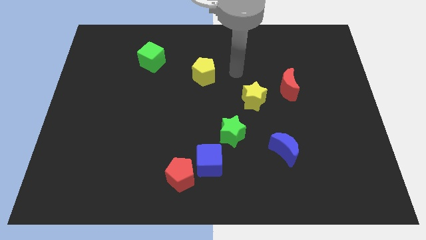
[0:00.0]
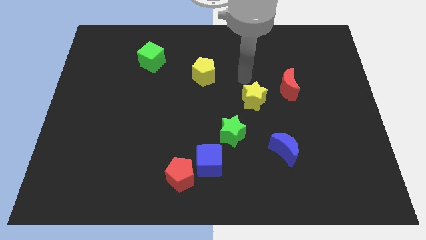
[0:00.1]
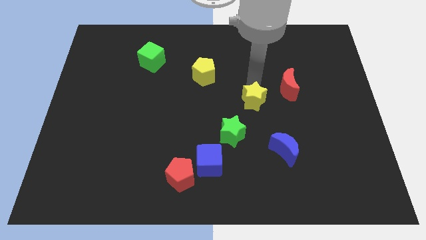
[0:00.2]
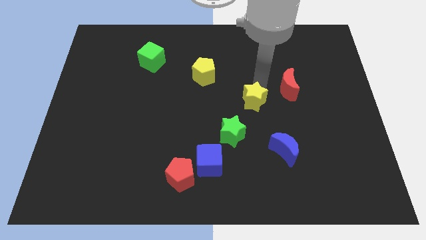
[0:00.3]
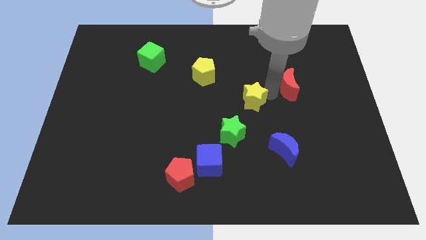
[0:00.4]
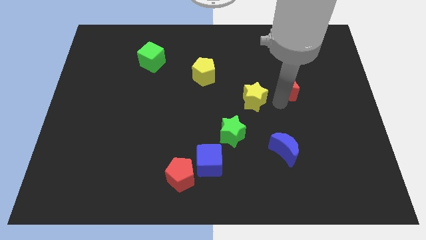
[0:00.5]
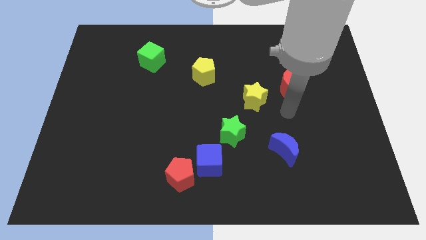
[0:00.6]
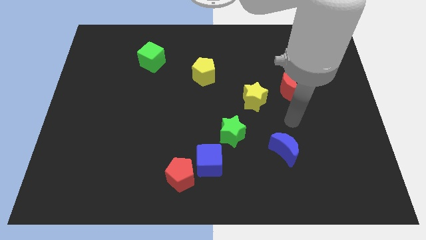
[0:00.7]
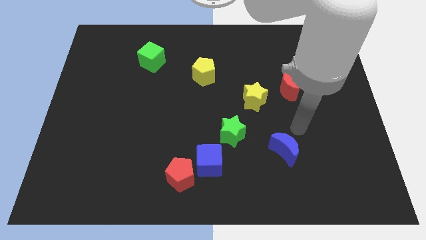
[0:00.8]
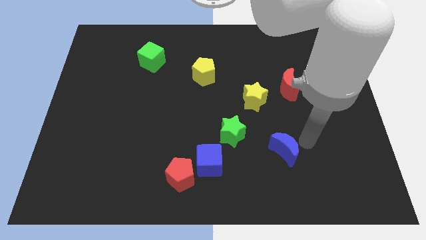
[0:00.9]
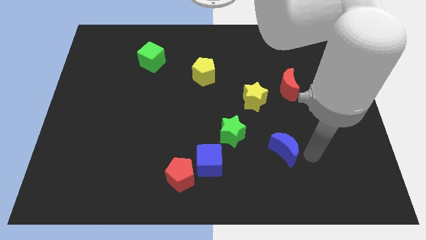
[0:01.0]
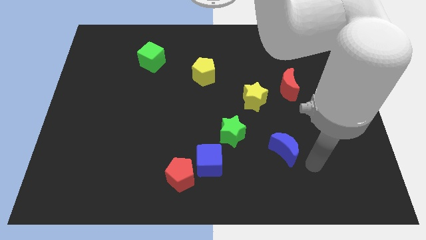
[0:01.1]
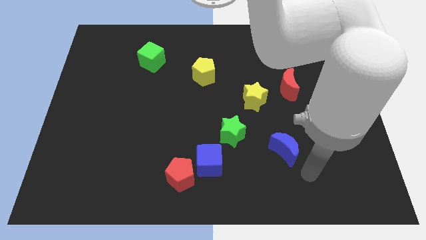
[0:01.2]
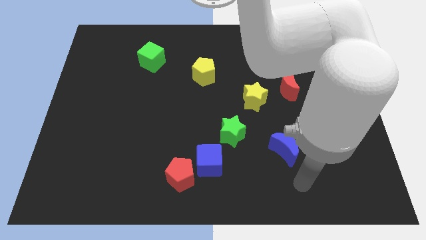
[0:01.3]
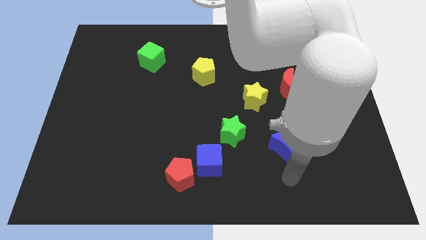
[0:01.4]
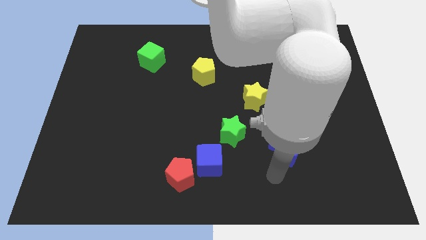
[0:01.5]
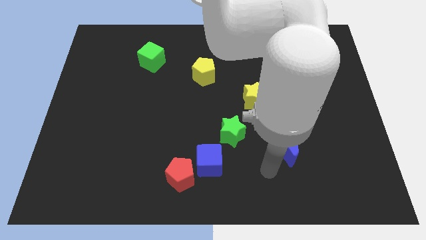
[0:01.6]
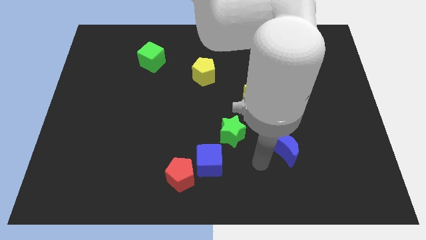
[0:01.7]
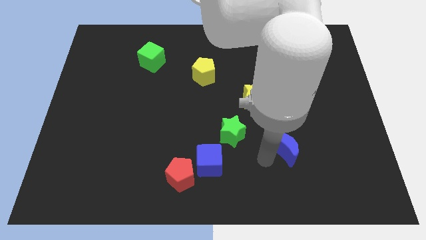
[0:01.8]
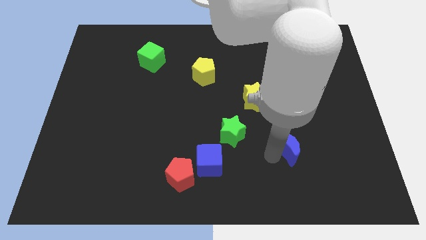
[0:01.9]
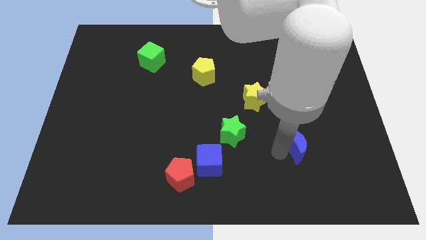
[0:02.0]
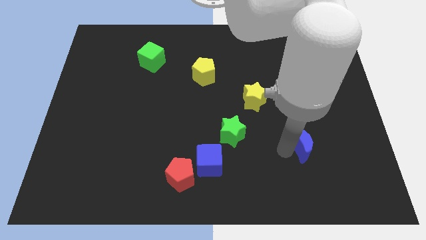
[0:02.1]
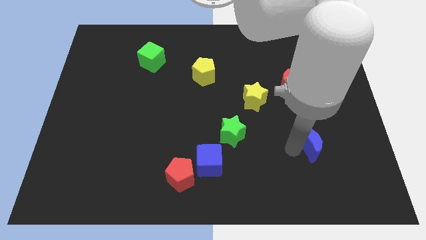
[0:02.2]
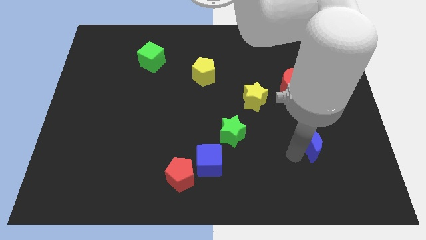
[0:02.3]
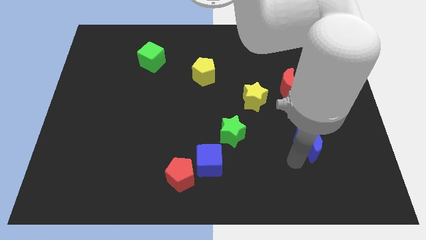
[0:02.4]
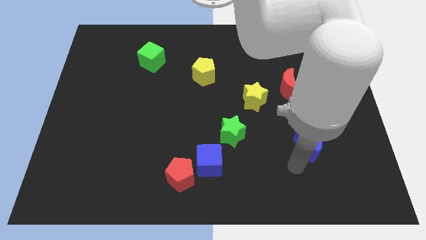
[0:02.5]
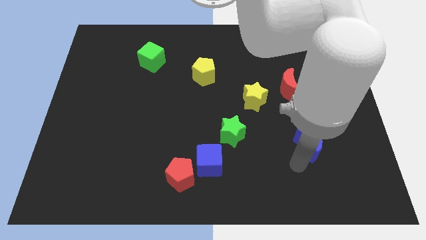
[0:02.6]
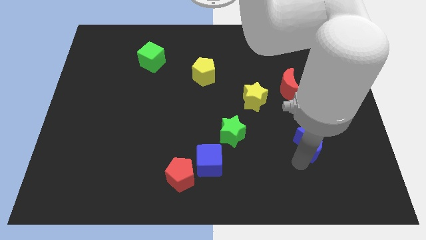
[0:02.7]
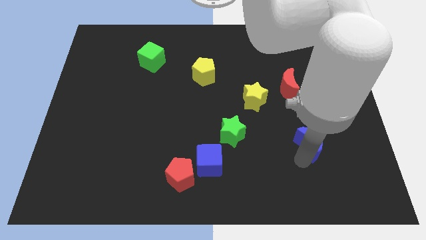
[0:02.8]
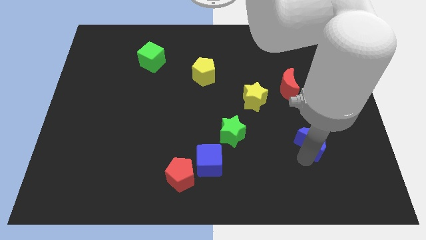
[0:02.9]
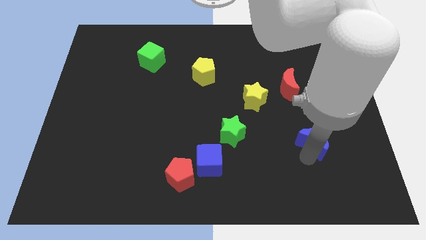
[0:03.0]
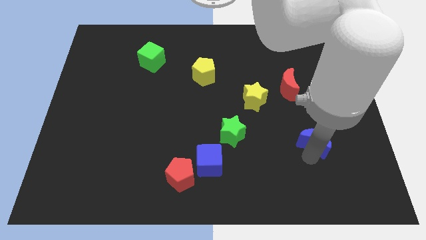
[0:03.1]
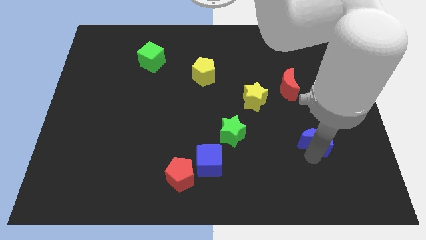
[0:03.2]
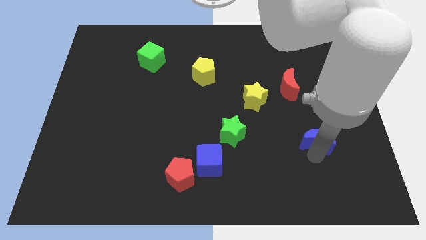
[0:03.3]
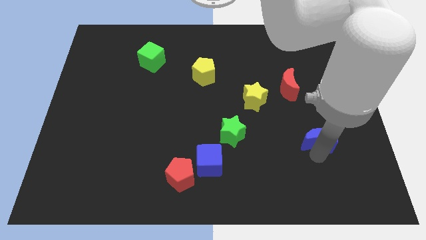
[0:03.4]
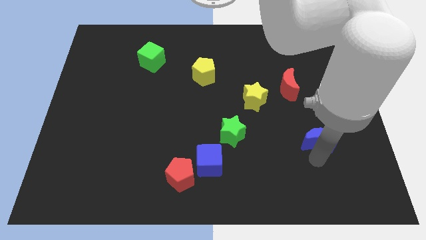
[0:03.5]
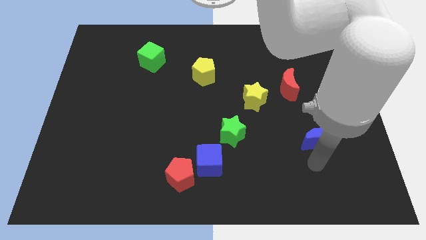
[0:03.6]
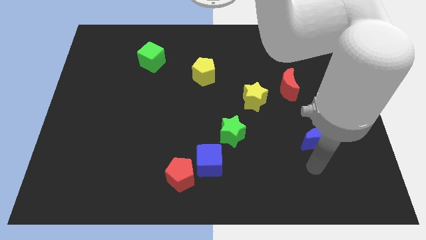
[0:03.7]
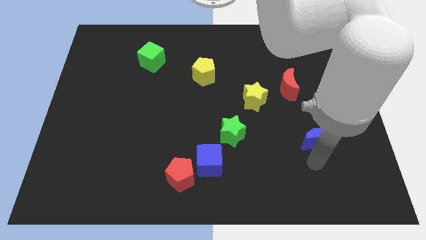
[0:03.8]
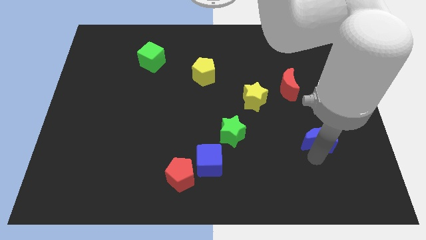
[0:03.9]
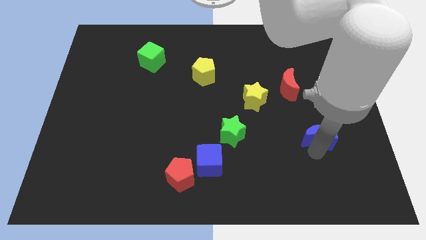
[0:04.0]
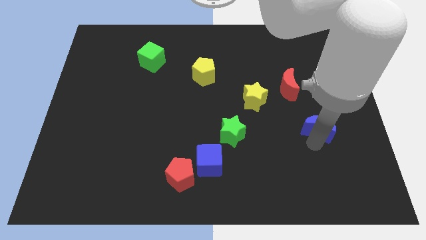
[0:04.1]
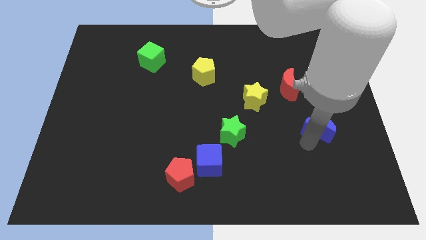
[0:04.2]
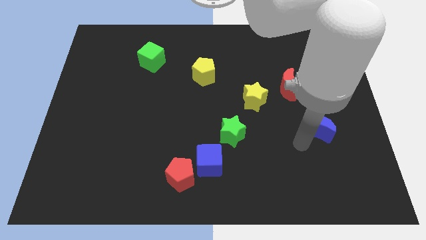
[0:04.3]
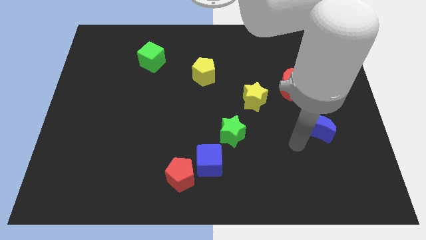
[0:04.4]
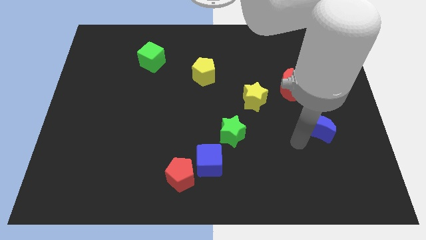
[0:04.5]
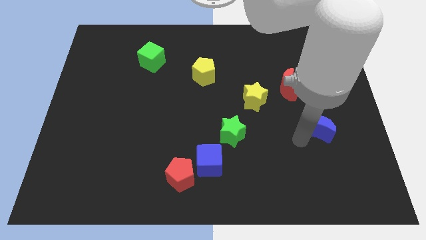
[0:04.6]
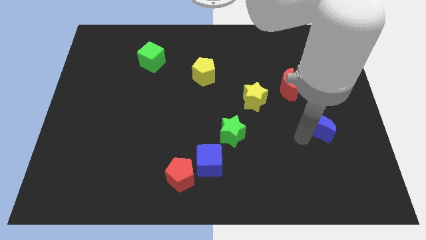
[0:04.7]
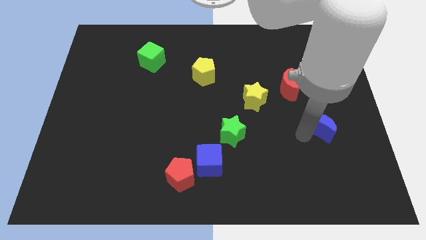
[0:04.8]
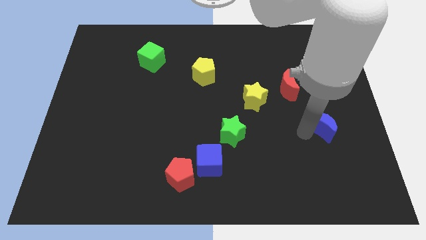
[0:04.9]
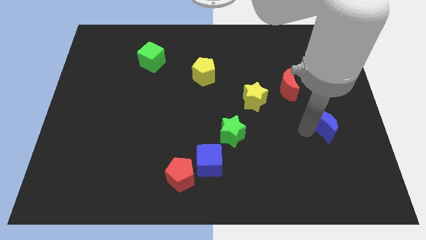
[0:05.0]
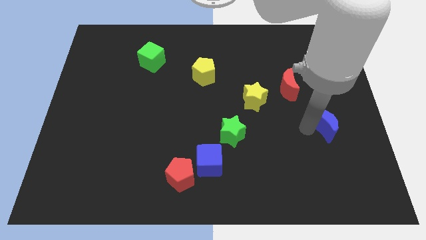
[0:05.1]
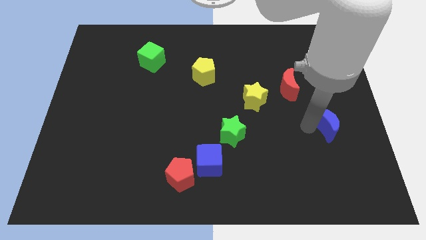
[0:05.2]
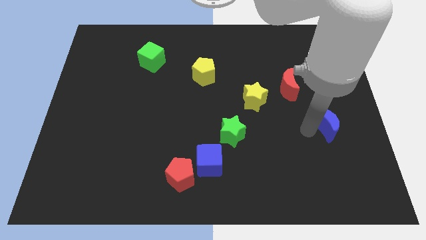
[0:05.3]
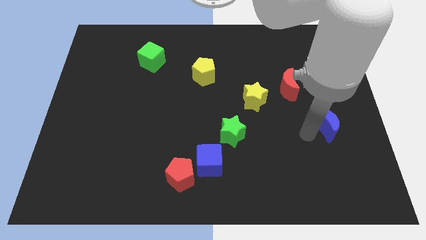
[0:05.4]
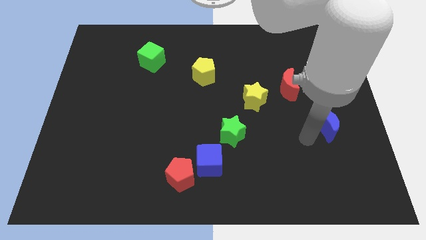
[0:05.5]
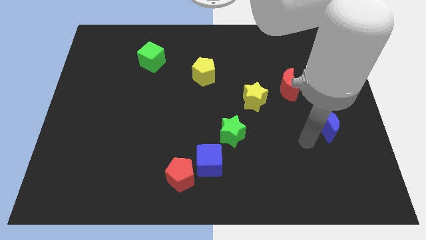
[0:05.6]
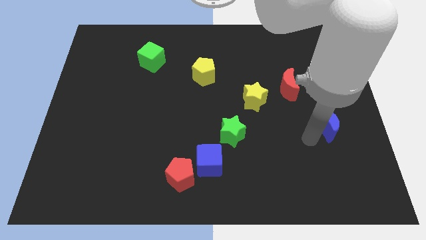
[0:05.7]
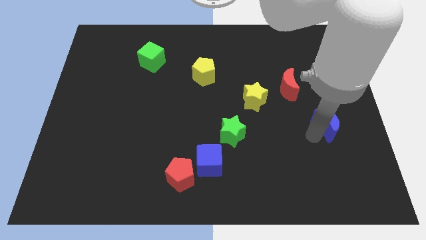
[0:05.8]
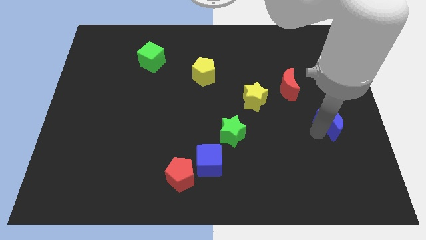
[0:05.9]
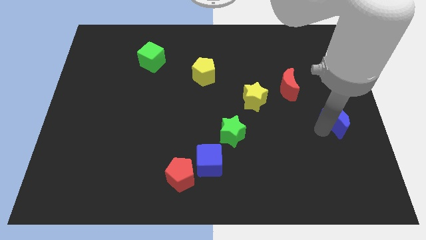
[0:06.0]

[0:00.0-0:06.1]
put the blue moon to the right side of the board

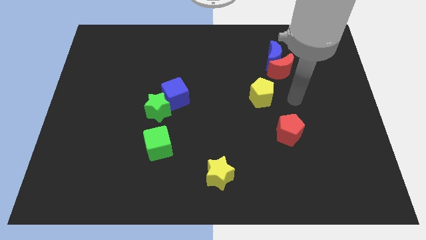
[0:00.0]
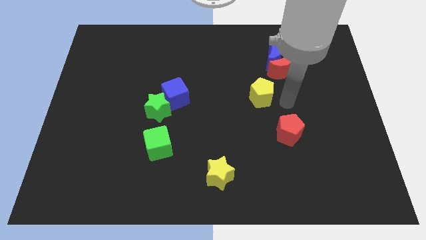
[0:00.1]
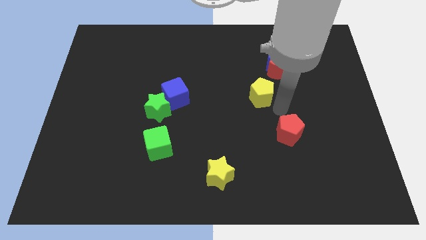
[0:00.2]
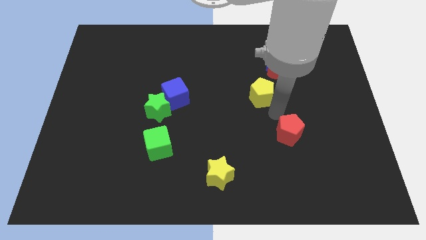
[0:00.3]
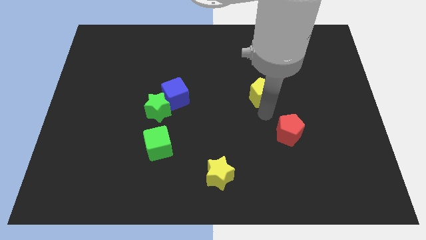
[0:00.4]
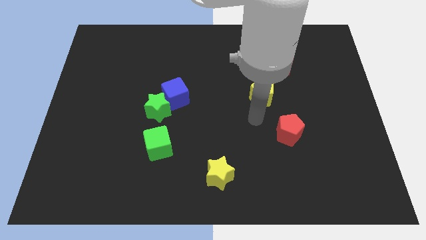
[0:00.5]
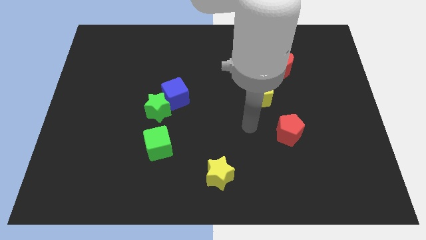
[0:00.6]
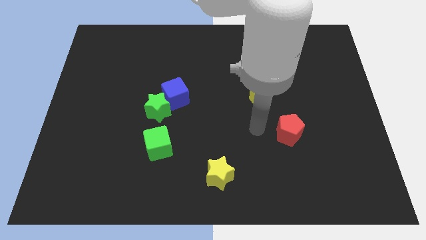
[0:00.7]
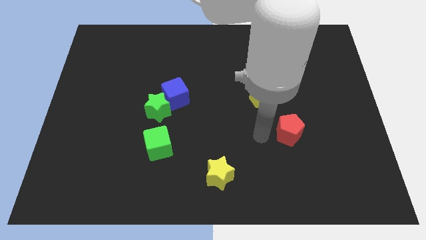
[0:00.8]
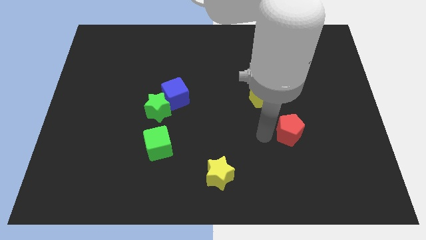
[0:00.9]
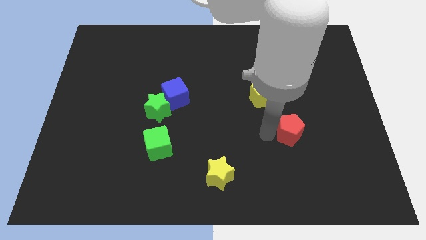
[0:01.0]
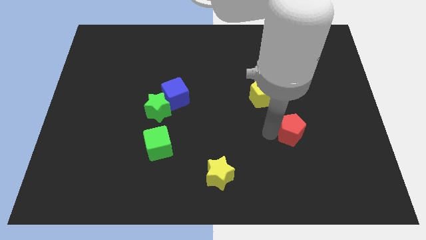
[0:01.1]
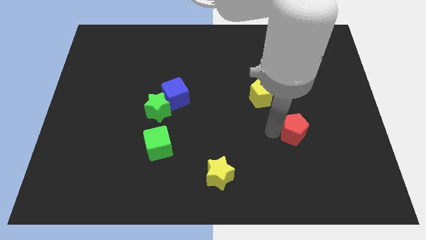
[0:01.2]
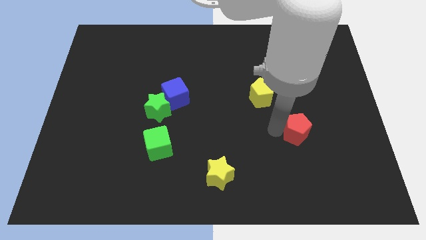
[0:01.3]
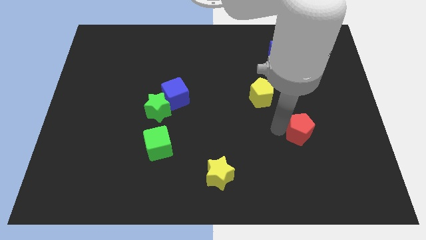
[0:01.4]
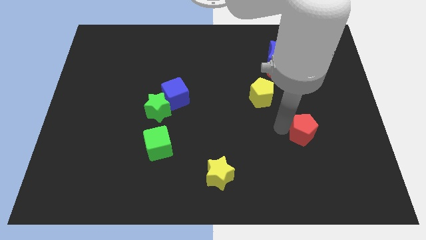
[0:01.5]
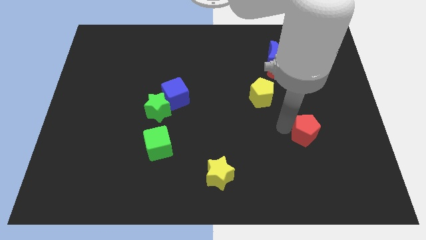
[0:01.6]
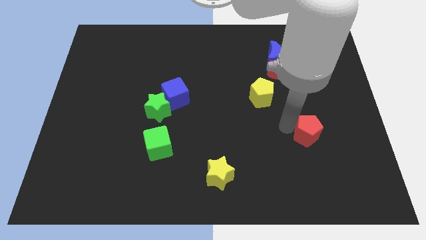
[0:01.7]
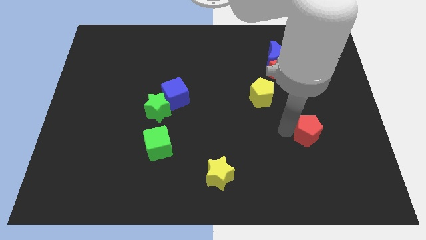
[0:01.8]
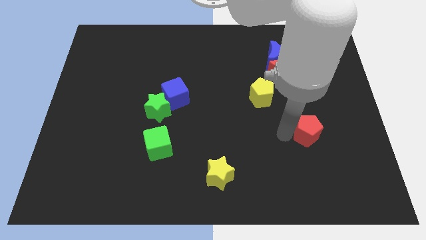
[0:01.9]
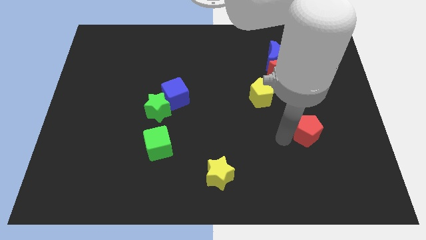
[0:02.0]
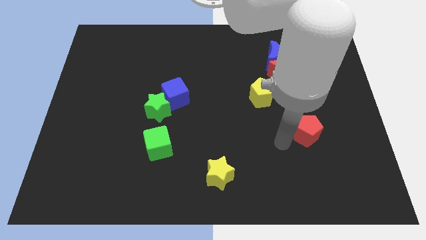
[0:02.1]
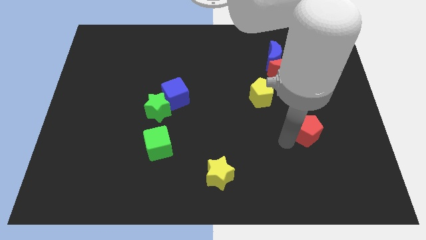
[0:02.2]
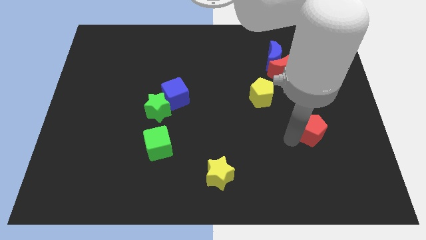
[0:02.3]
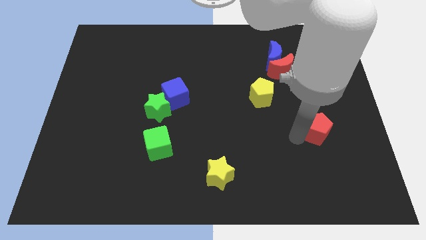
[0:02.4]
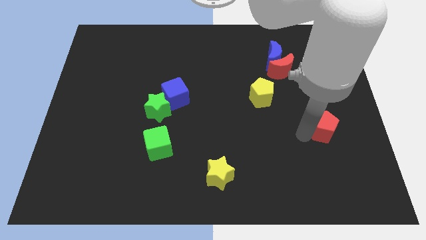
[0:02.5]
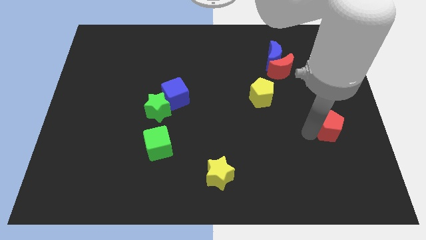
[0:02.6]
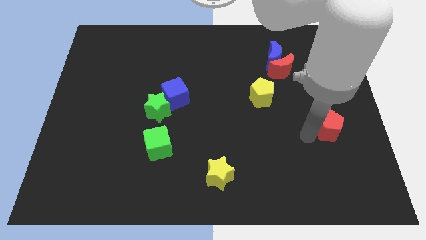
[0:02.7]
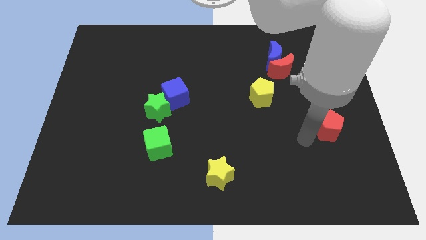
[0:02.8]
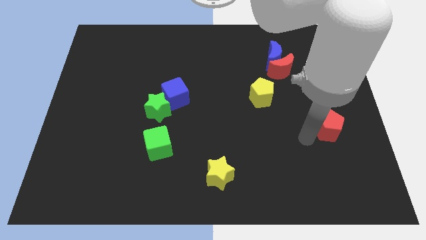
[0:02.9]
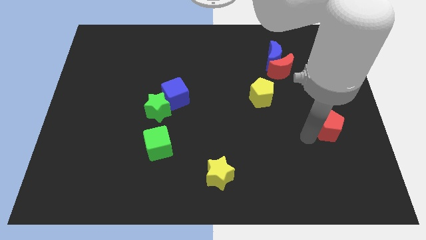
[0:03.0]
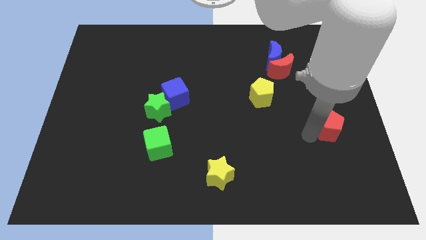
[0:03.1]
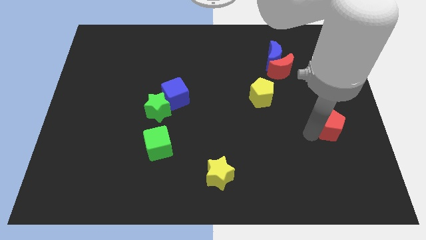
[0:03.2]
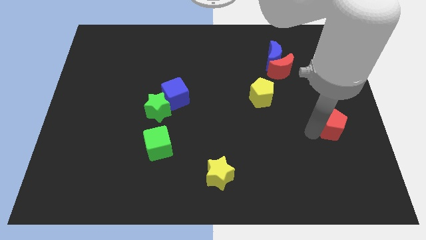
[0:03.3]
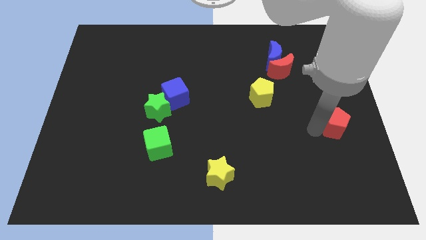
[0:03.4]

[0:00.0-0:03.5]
move the red pentagon to the right side of the board
